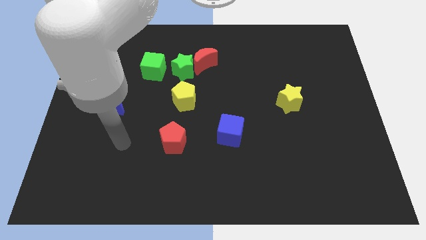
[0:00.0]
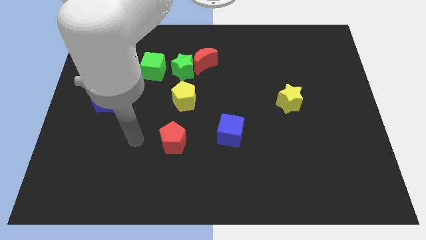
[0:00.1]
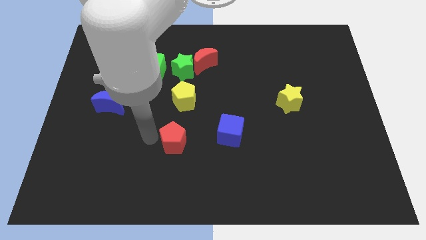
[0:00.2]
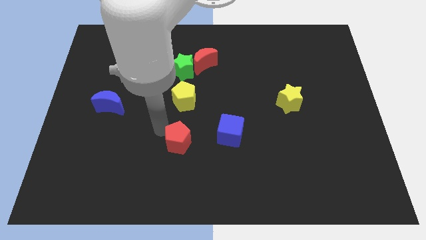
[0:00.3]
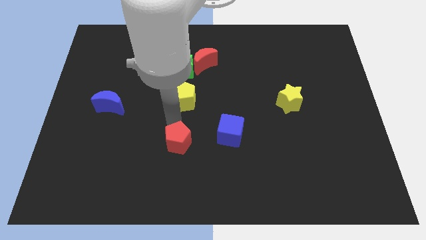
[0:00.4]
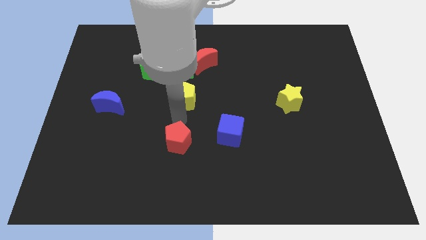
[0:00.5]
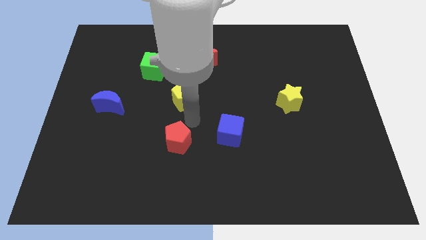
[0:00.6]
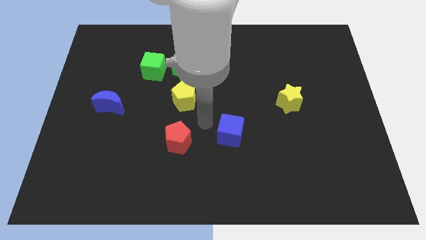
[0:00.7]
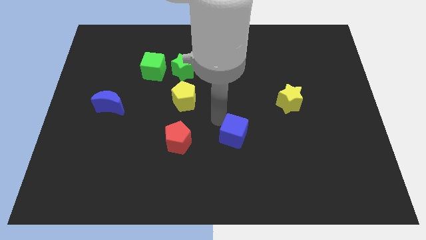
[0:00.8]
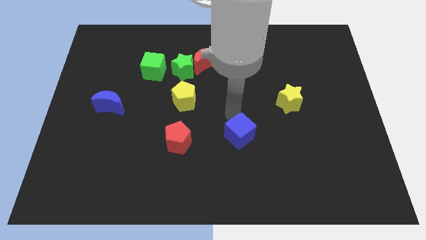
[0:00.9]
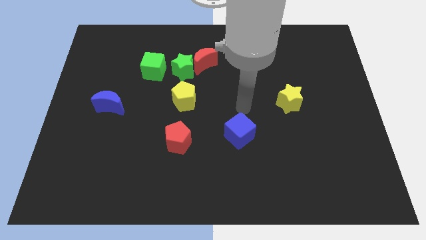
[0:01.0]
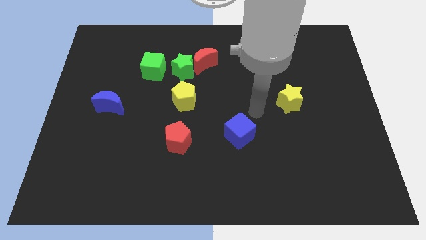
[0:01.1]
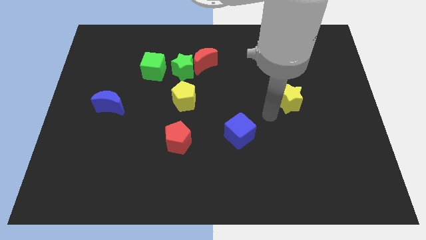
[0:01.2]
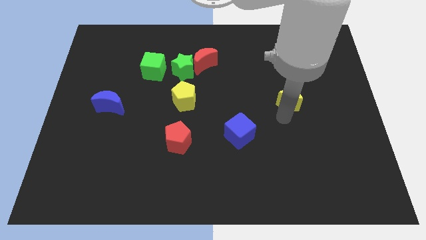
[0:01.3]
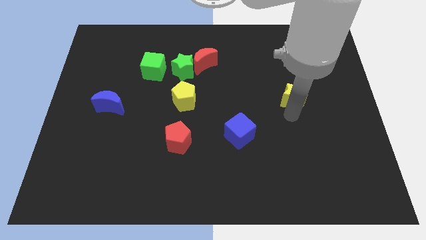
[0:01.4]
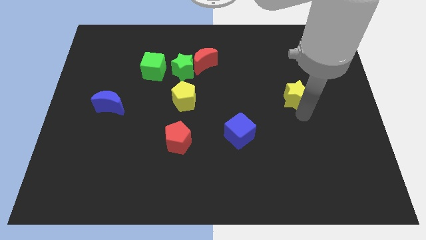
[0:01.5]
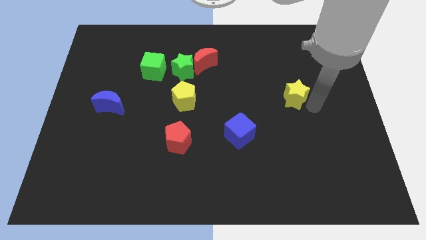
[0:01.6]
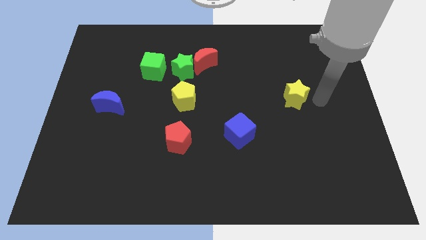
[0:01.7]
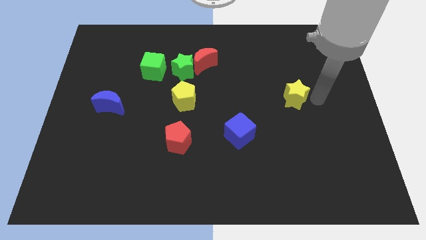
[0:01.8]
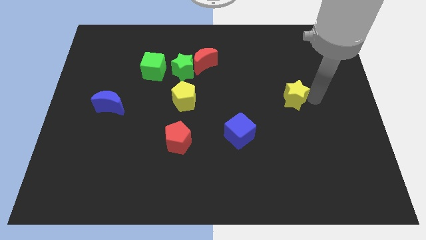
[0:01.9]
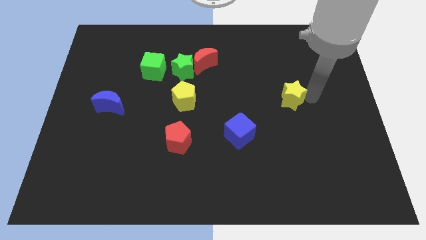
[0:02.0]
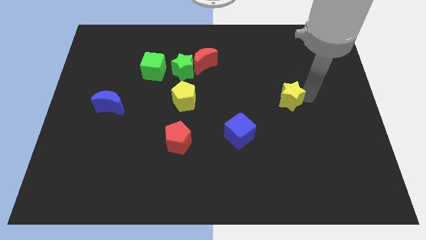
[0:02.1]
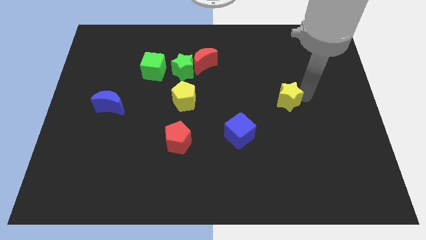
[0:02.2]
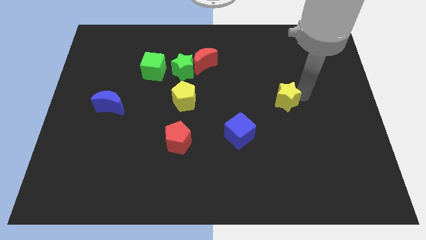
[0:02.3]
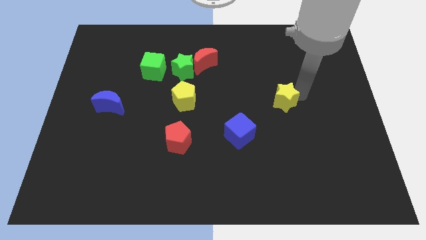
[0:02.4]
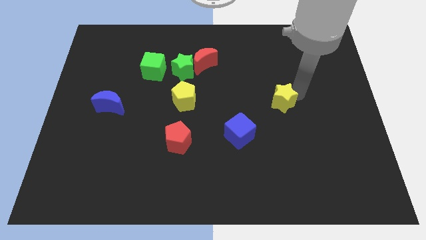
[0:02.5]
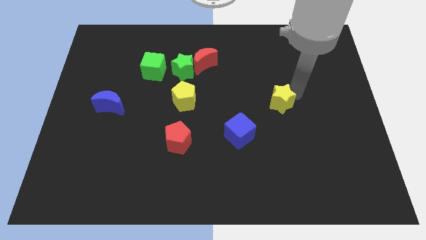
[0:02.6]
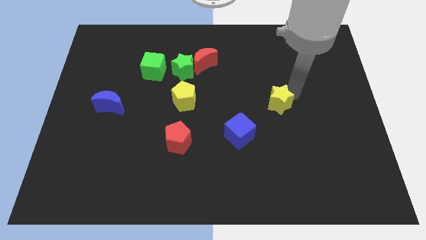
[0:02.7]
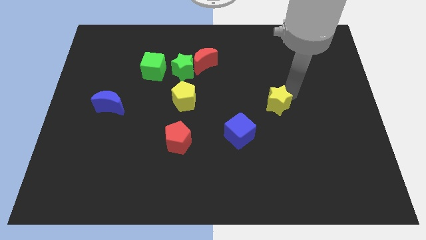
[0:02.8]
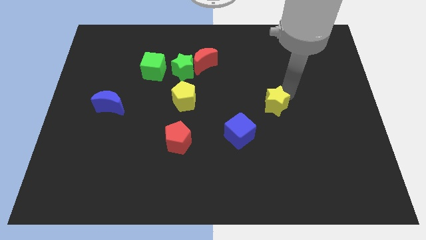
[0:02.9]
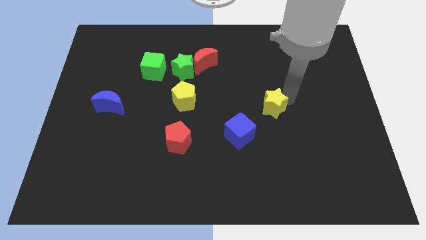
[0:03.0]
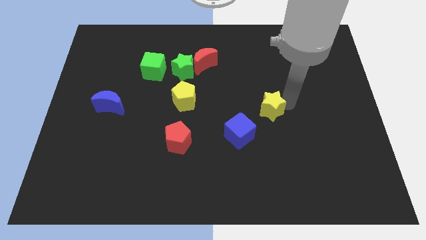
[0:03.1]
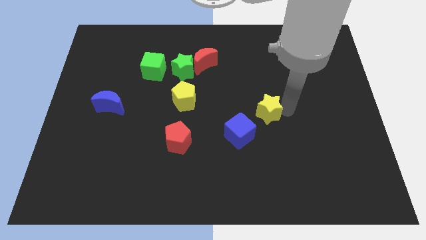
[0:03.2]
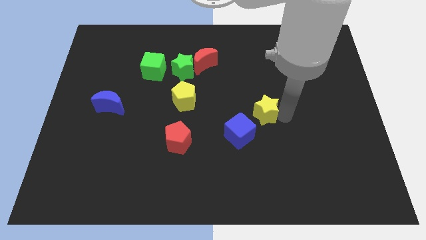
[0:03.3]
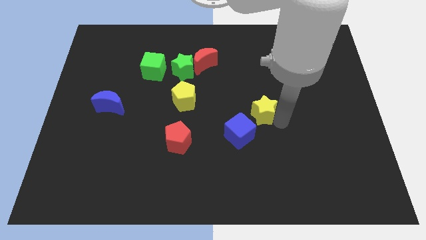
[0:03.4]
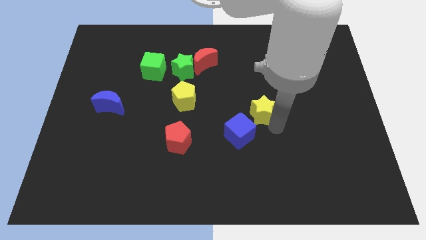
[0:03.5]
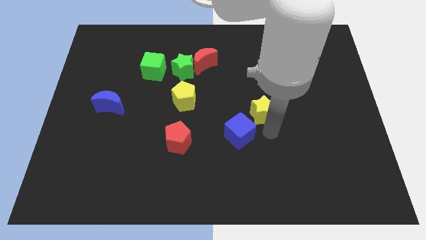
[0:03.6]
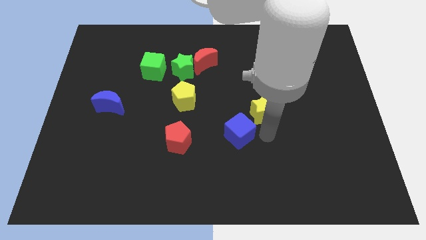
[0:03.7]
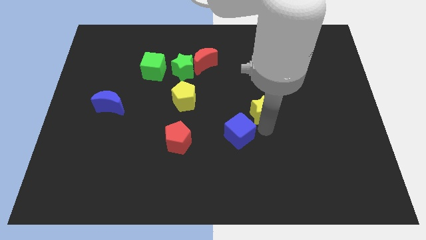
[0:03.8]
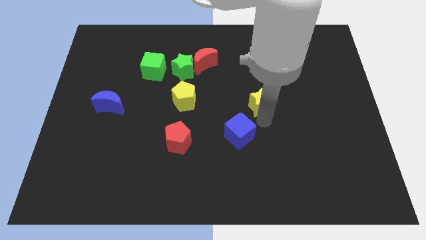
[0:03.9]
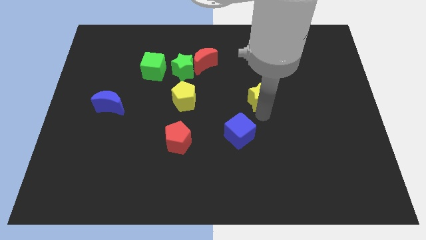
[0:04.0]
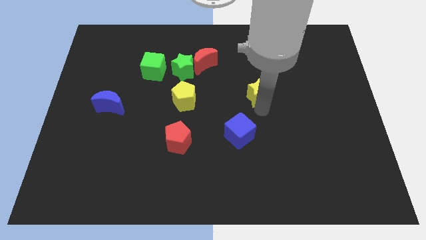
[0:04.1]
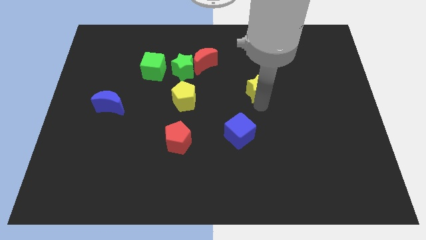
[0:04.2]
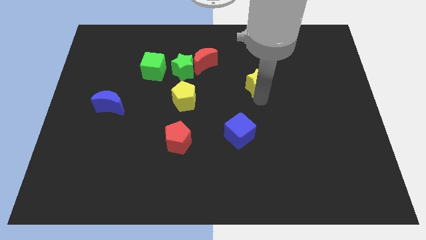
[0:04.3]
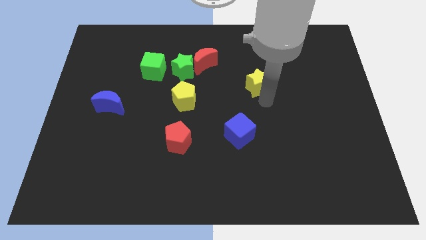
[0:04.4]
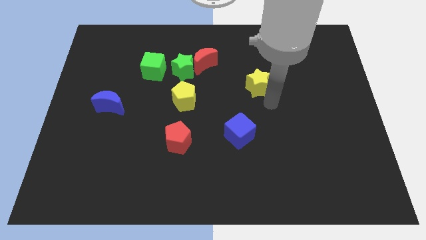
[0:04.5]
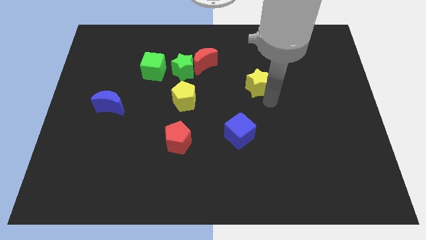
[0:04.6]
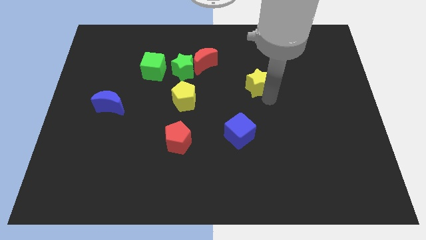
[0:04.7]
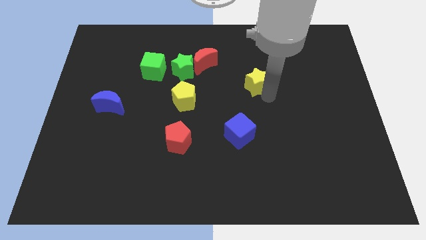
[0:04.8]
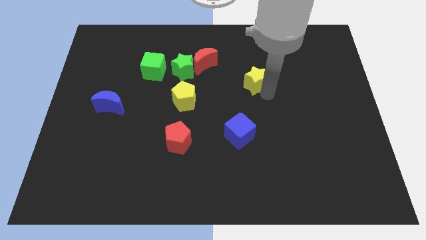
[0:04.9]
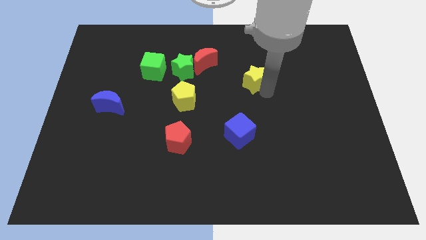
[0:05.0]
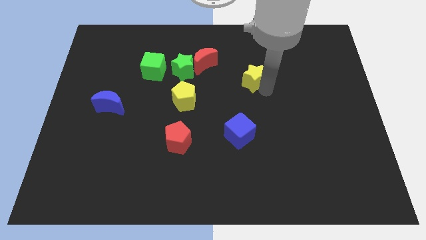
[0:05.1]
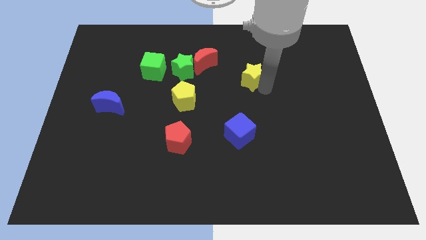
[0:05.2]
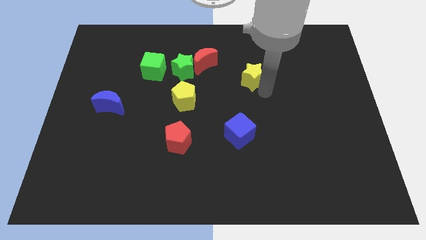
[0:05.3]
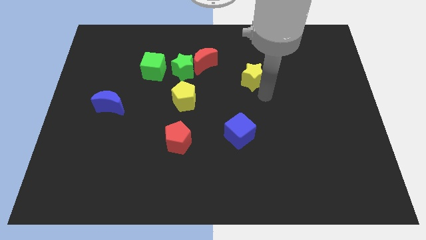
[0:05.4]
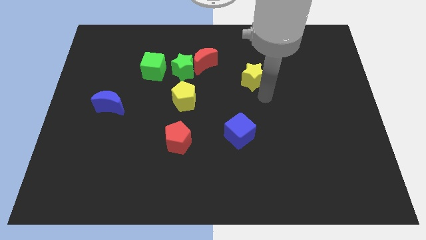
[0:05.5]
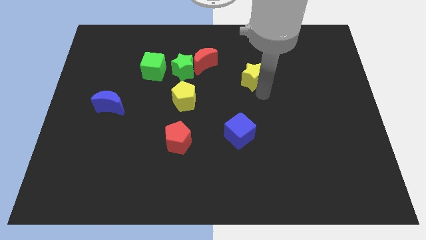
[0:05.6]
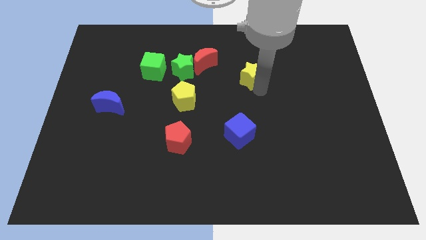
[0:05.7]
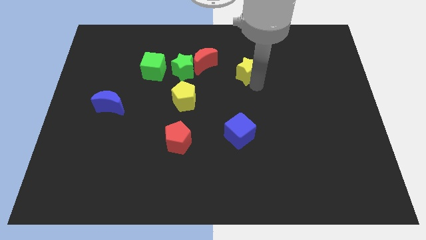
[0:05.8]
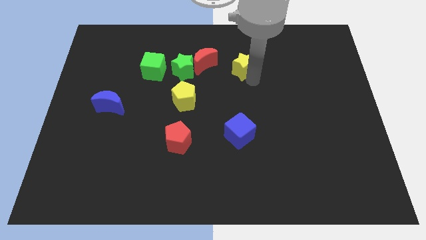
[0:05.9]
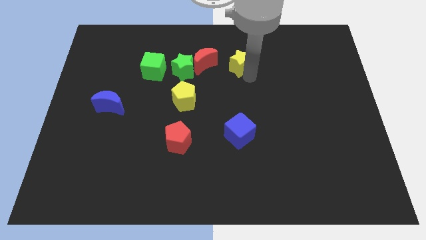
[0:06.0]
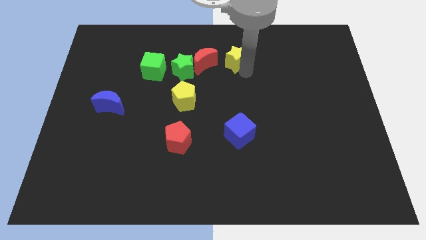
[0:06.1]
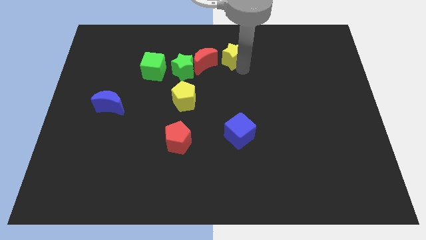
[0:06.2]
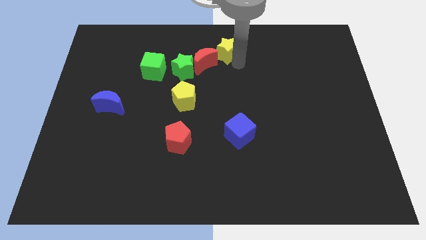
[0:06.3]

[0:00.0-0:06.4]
slide the yellow star to the top
